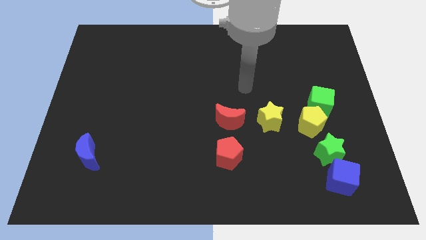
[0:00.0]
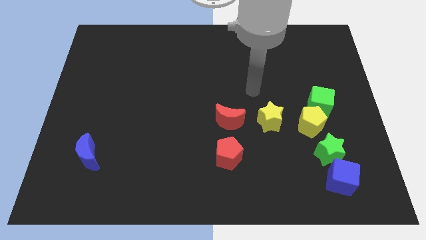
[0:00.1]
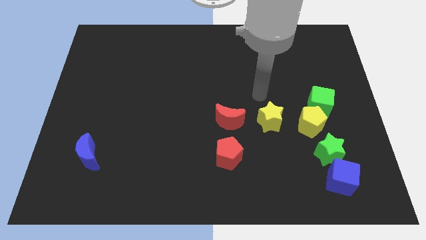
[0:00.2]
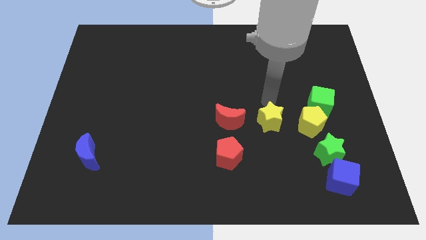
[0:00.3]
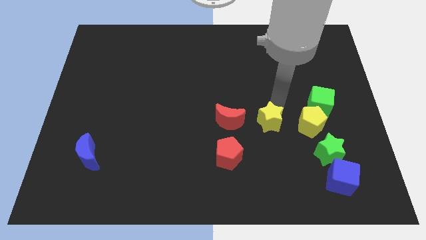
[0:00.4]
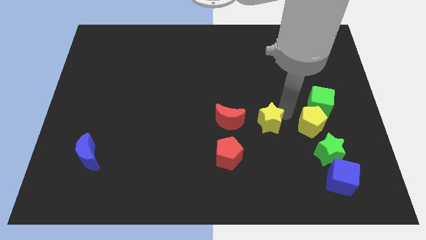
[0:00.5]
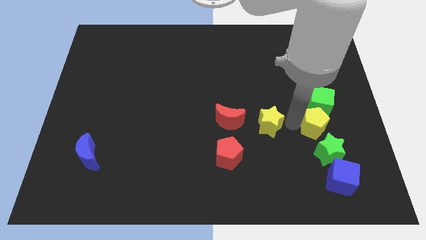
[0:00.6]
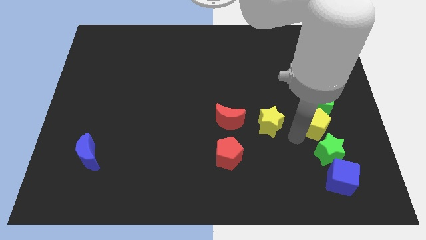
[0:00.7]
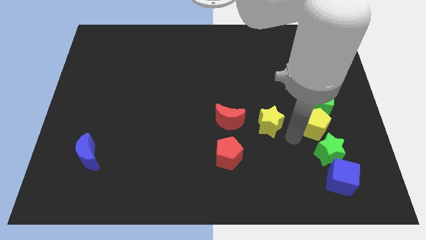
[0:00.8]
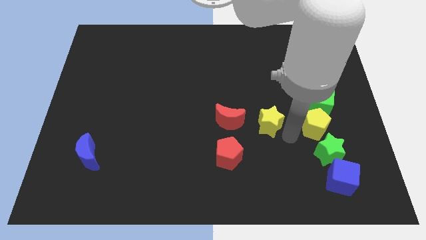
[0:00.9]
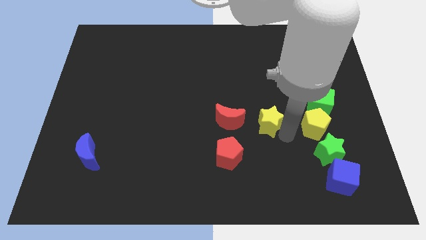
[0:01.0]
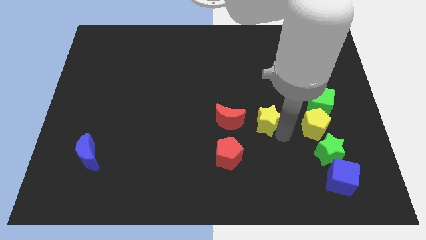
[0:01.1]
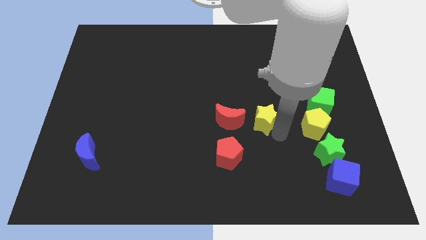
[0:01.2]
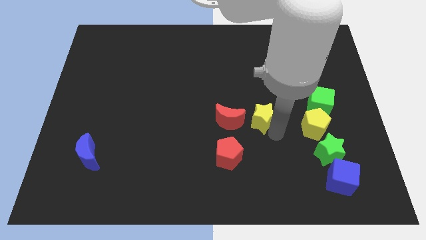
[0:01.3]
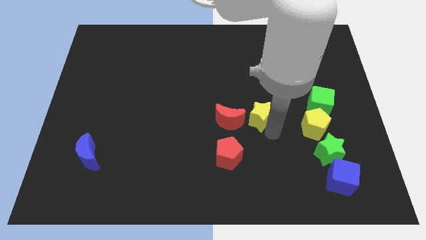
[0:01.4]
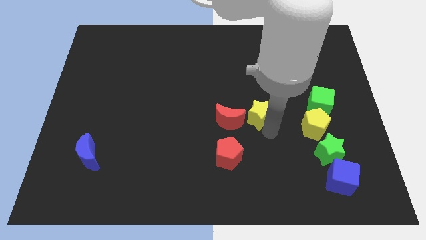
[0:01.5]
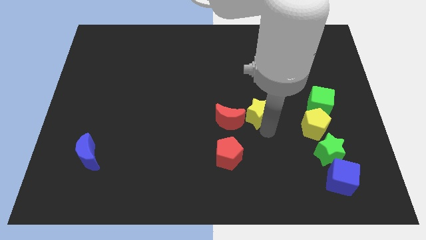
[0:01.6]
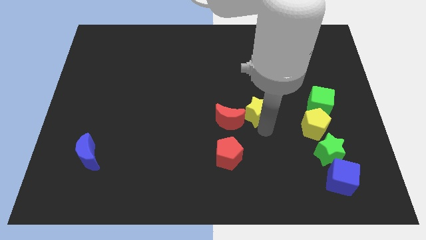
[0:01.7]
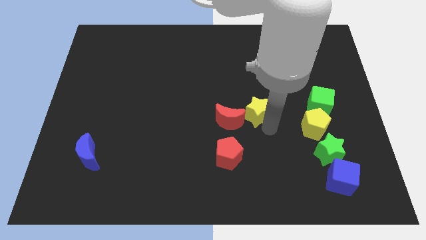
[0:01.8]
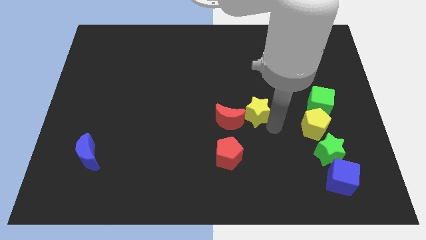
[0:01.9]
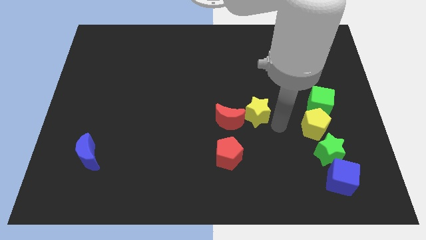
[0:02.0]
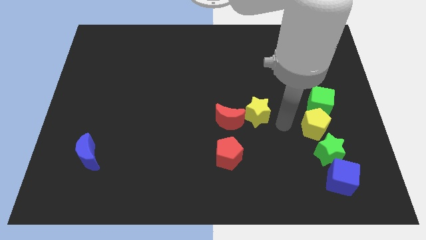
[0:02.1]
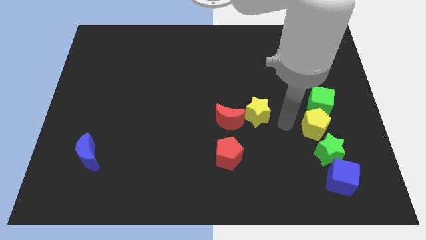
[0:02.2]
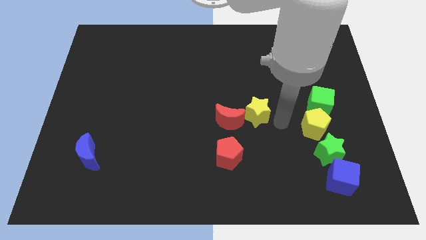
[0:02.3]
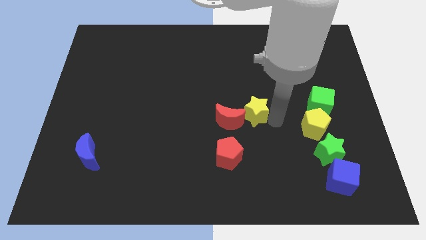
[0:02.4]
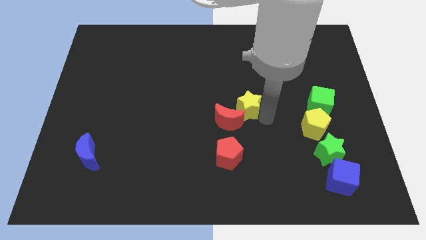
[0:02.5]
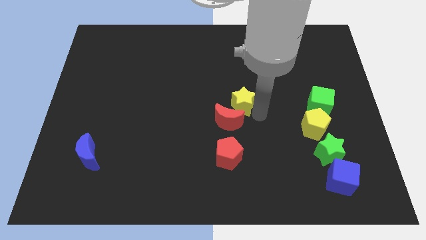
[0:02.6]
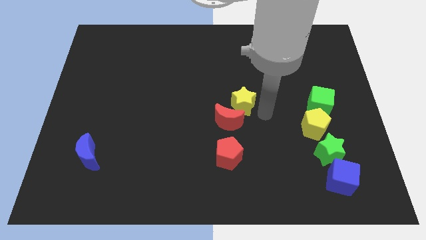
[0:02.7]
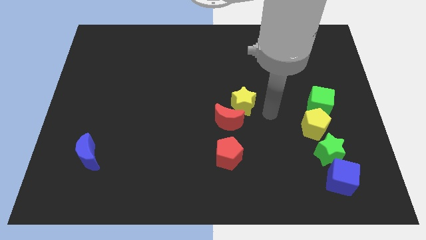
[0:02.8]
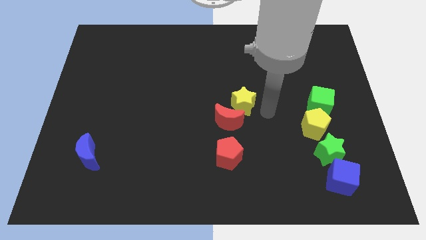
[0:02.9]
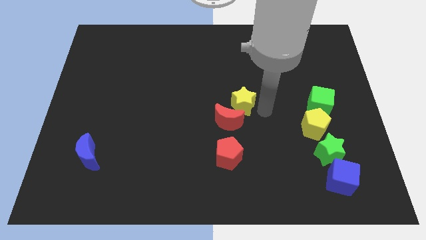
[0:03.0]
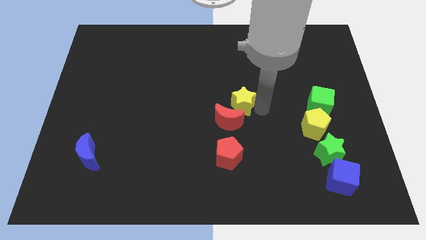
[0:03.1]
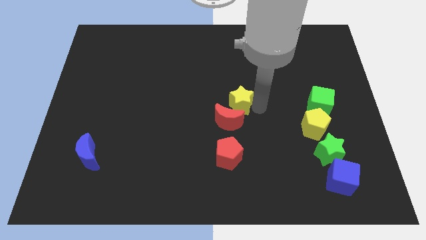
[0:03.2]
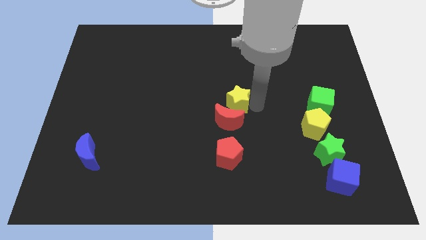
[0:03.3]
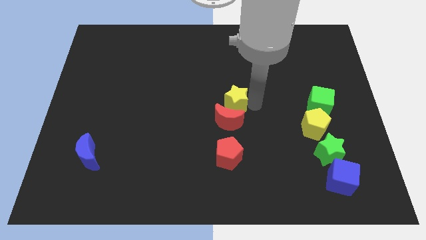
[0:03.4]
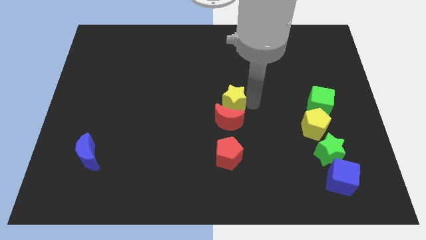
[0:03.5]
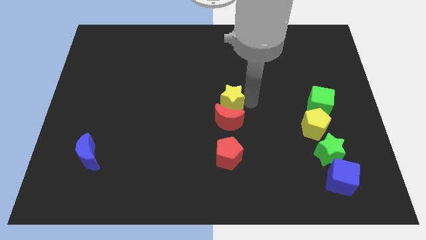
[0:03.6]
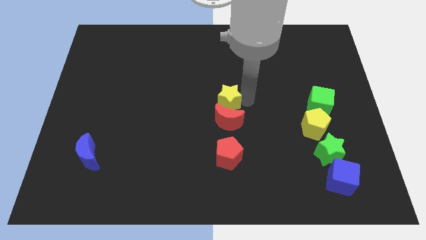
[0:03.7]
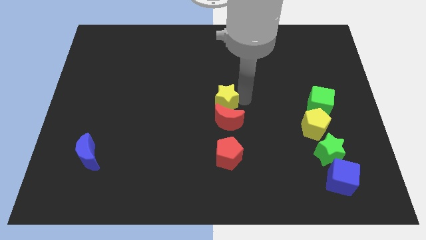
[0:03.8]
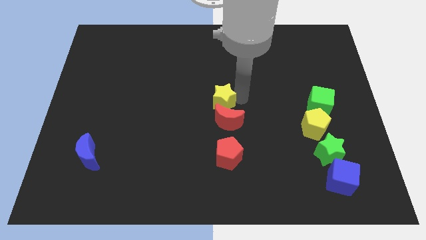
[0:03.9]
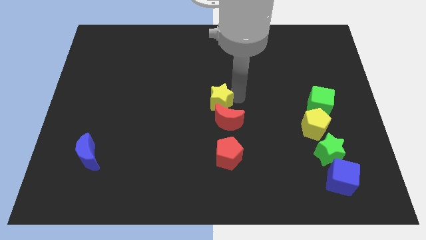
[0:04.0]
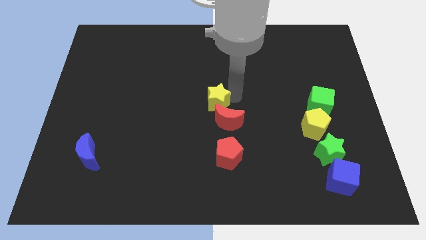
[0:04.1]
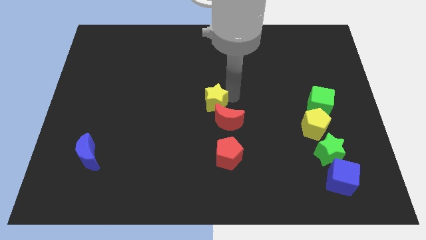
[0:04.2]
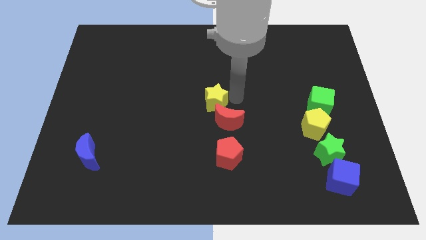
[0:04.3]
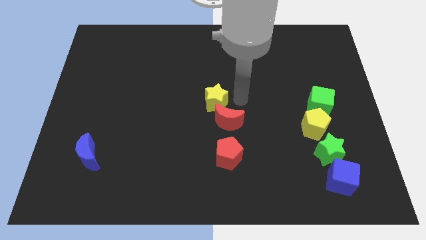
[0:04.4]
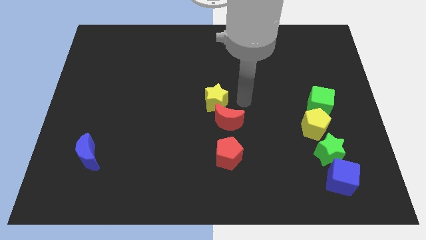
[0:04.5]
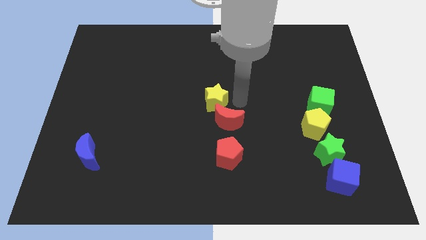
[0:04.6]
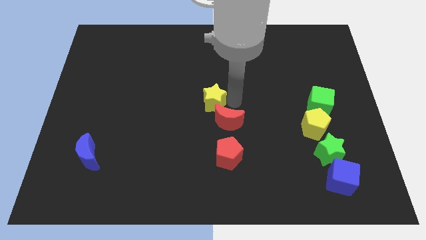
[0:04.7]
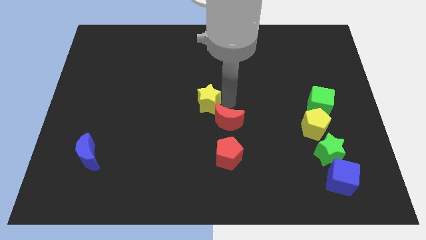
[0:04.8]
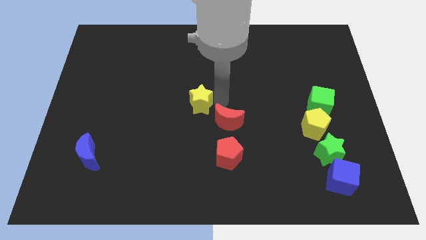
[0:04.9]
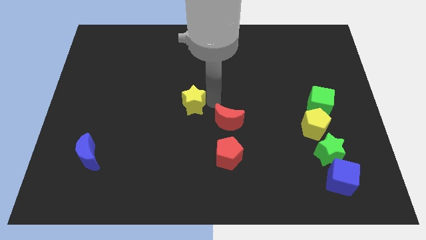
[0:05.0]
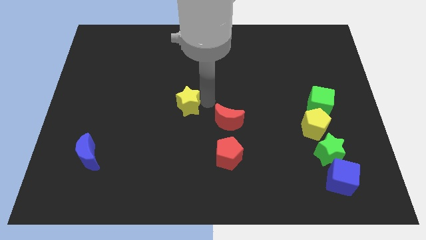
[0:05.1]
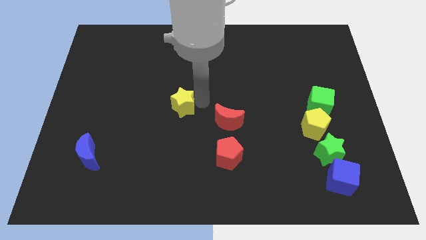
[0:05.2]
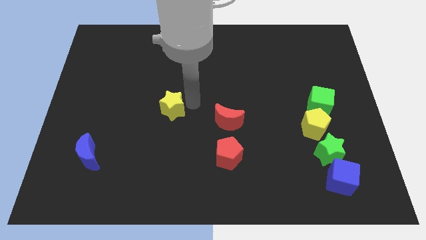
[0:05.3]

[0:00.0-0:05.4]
push the yellow star left

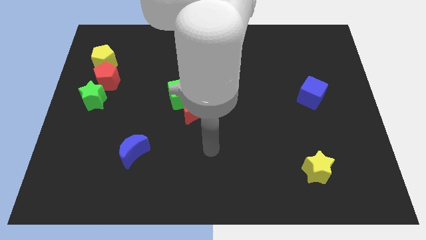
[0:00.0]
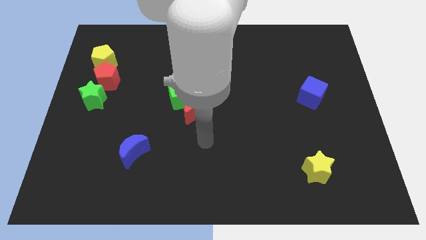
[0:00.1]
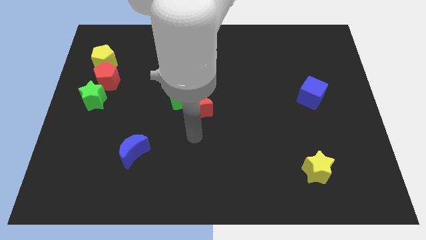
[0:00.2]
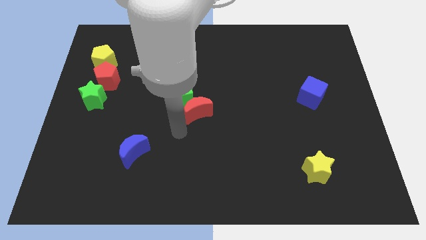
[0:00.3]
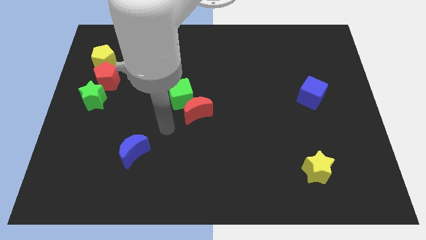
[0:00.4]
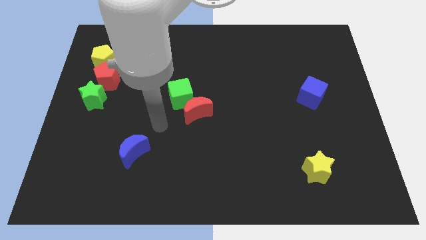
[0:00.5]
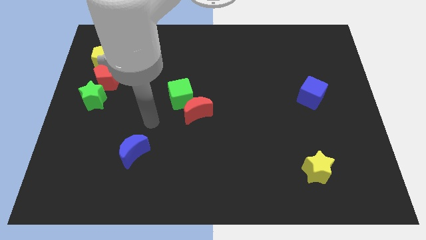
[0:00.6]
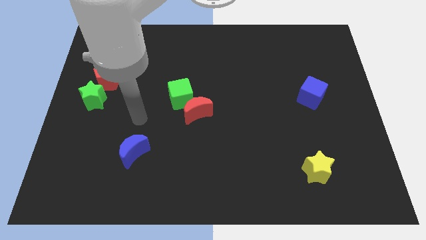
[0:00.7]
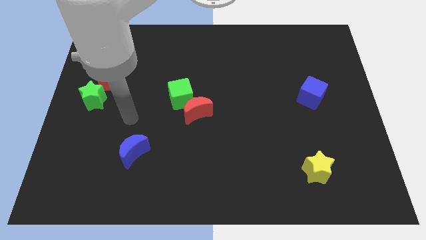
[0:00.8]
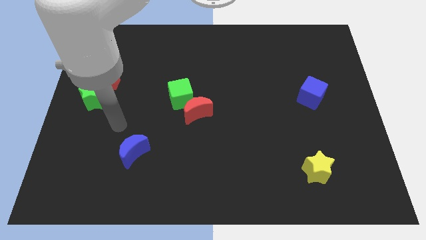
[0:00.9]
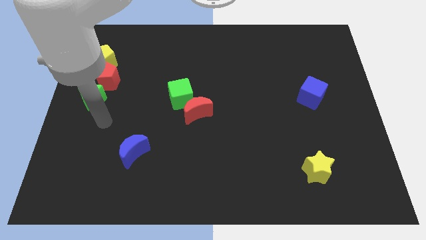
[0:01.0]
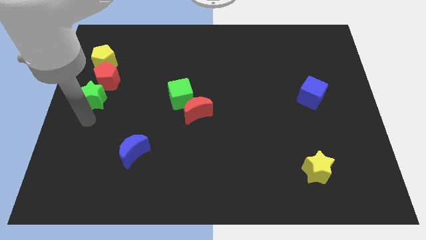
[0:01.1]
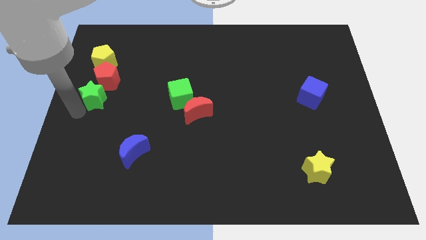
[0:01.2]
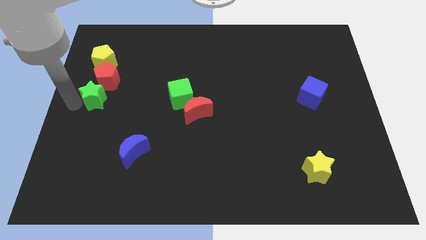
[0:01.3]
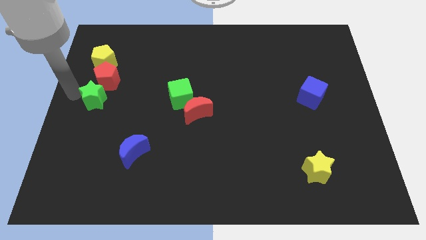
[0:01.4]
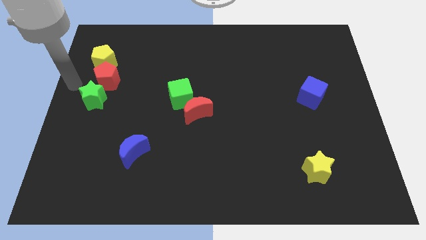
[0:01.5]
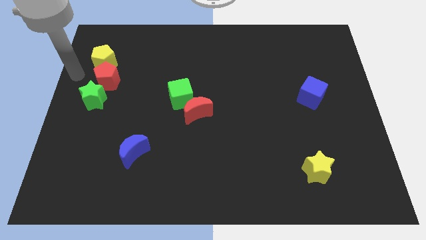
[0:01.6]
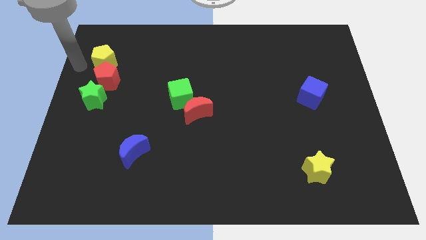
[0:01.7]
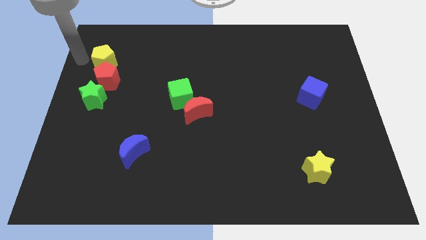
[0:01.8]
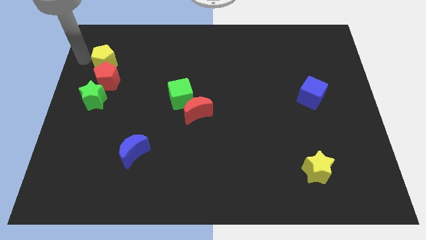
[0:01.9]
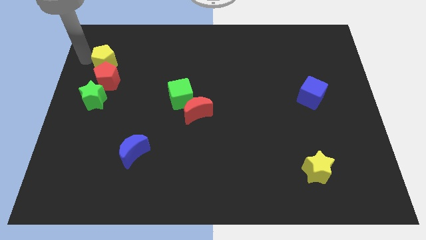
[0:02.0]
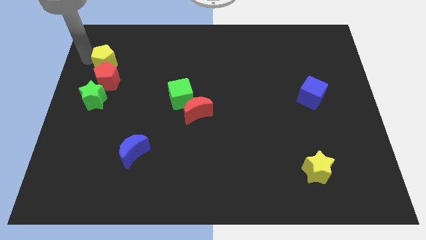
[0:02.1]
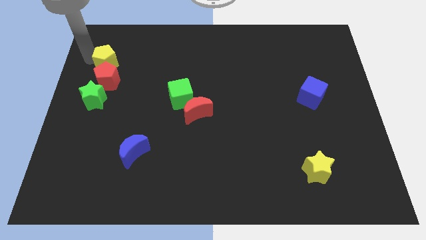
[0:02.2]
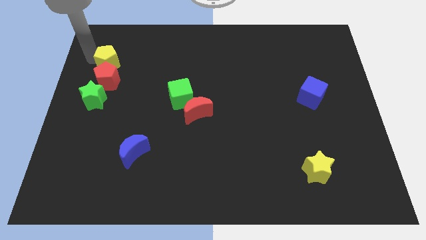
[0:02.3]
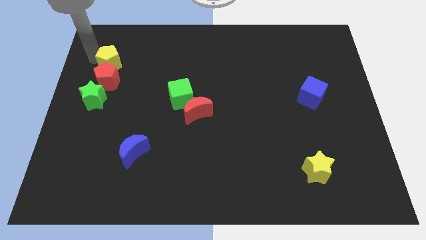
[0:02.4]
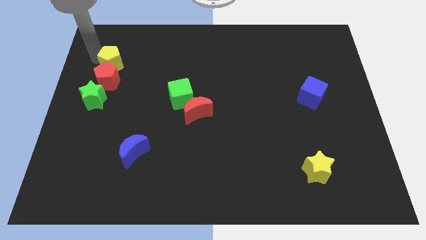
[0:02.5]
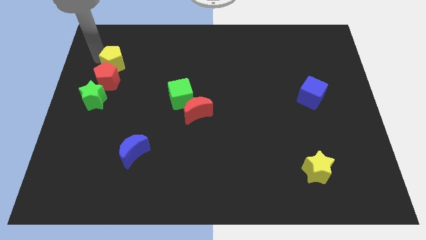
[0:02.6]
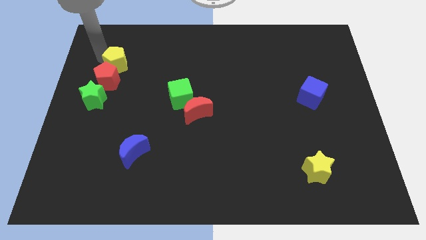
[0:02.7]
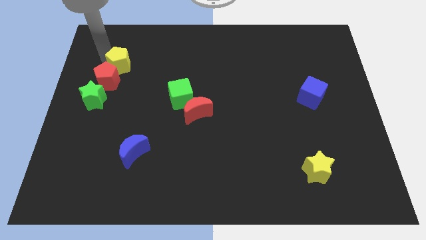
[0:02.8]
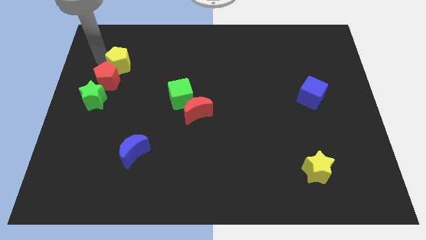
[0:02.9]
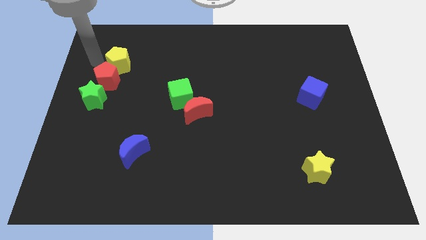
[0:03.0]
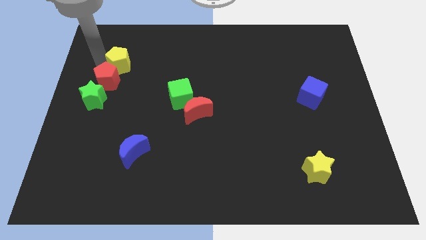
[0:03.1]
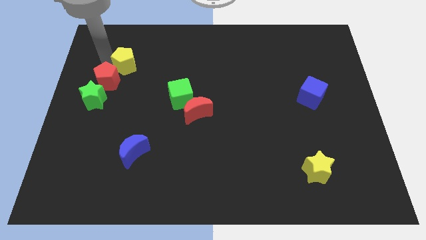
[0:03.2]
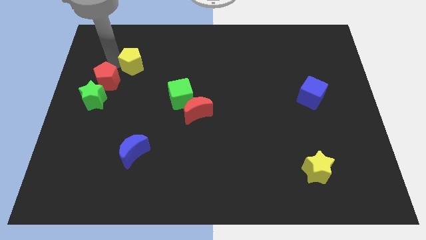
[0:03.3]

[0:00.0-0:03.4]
move the yellow pentagon right a little bit
